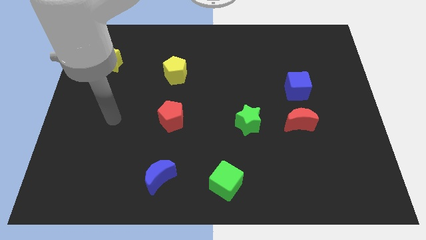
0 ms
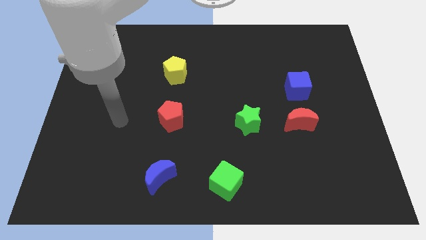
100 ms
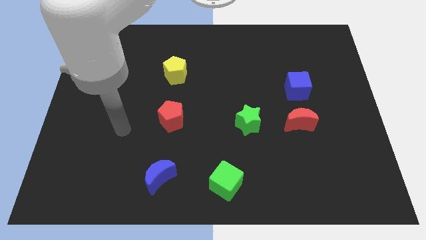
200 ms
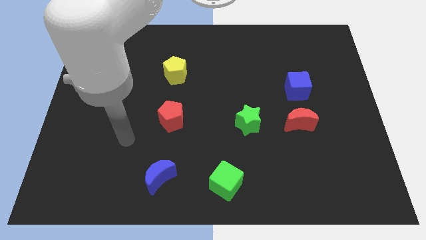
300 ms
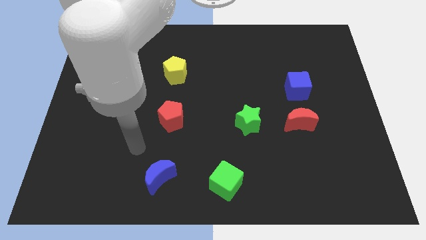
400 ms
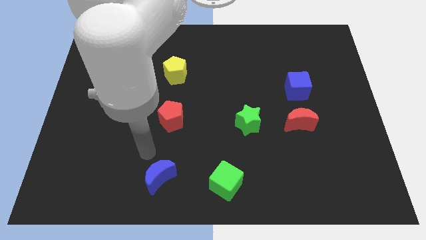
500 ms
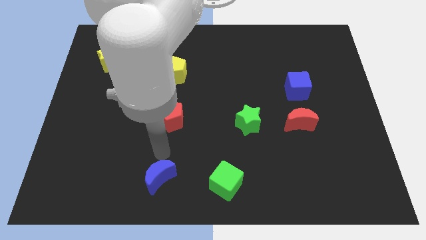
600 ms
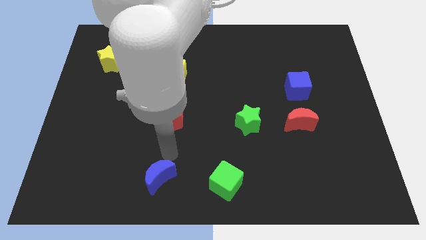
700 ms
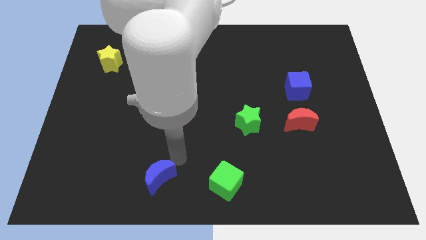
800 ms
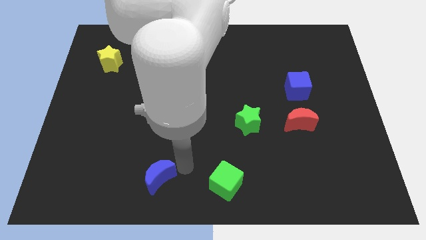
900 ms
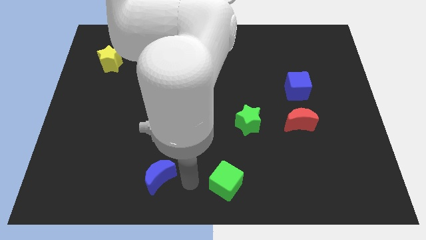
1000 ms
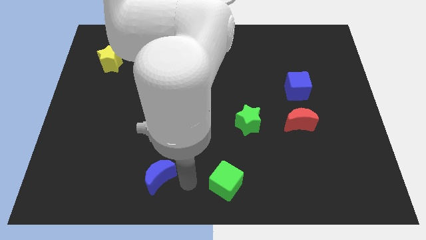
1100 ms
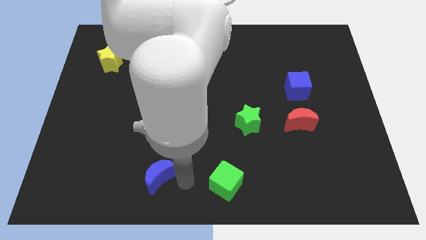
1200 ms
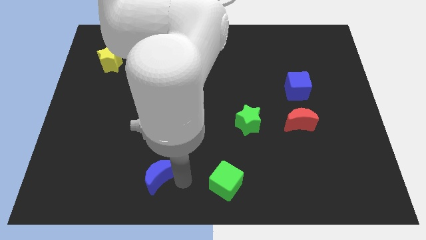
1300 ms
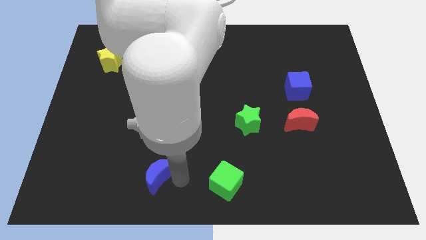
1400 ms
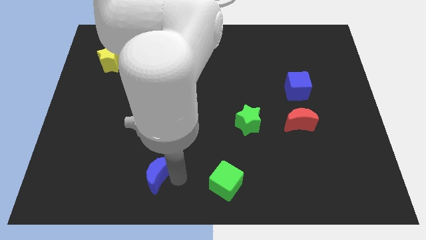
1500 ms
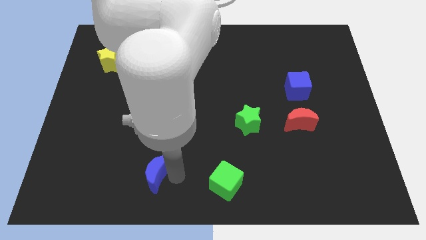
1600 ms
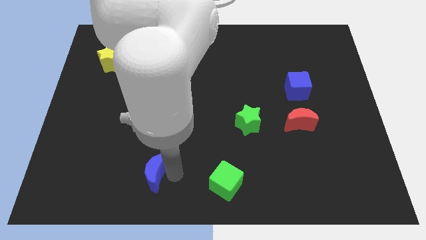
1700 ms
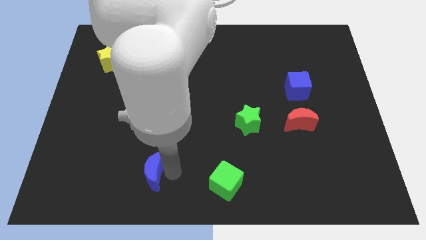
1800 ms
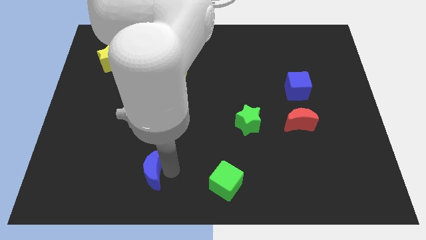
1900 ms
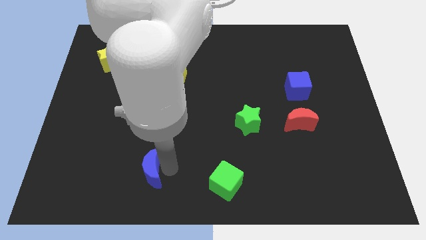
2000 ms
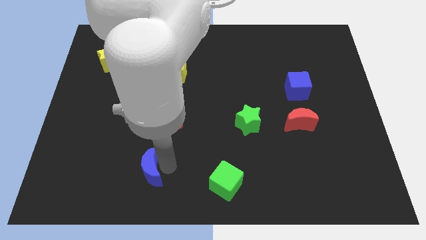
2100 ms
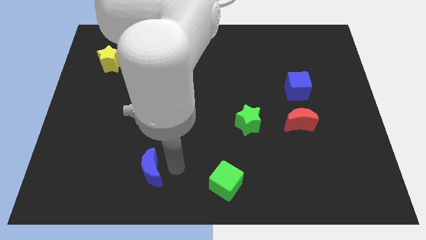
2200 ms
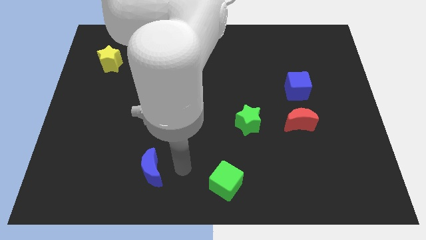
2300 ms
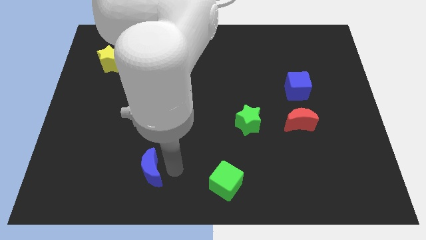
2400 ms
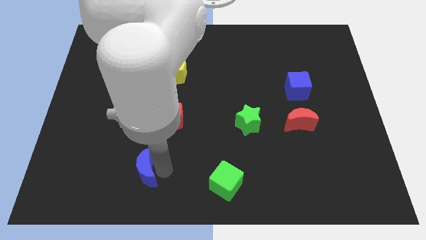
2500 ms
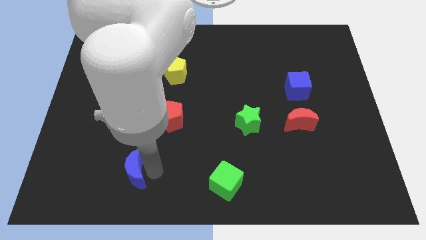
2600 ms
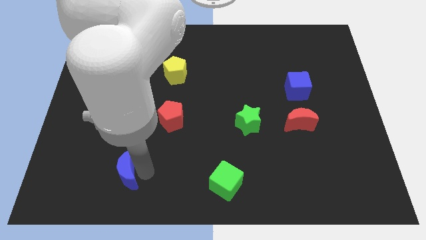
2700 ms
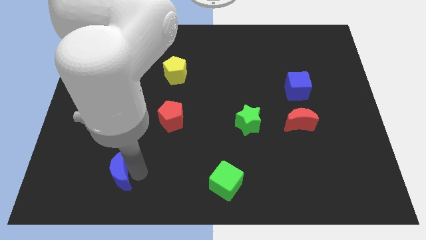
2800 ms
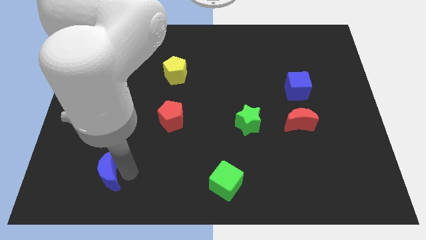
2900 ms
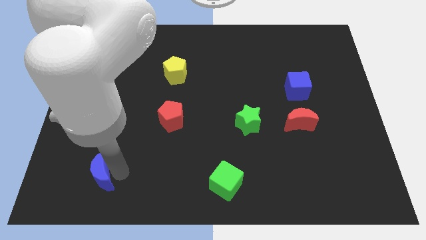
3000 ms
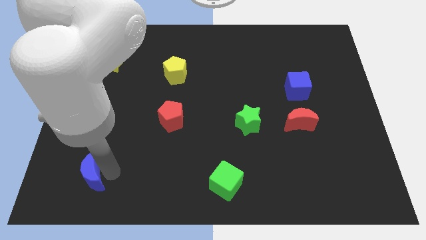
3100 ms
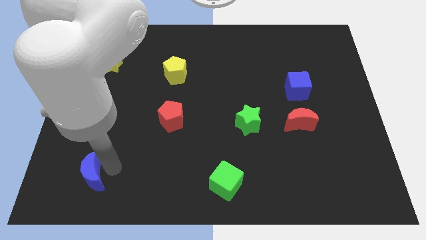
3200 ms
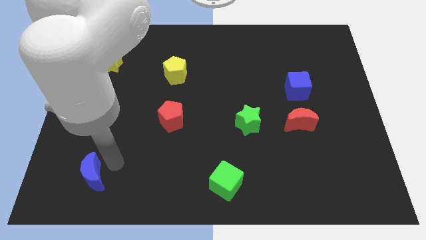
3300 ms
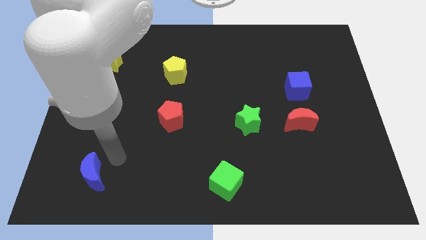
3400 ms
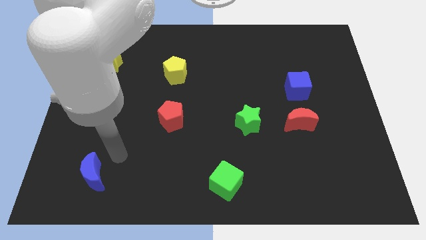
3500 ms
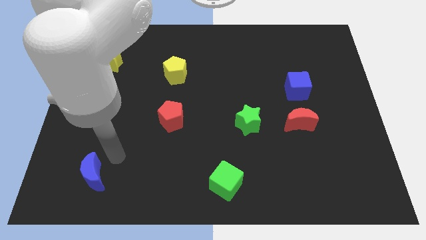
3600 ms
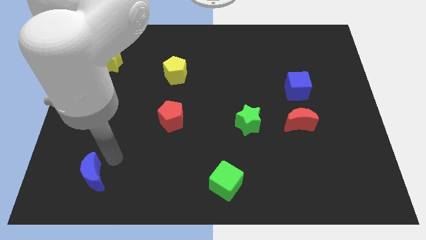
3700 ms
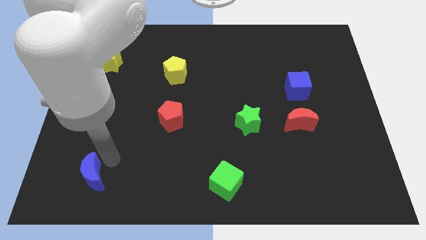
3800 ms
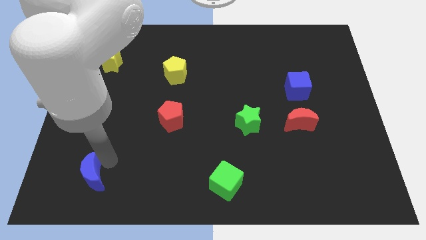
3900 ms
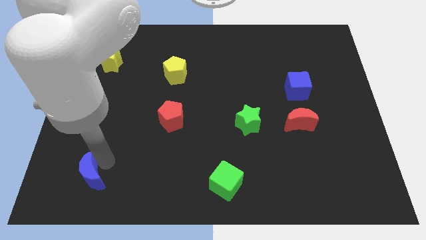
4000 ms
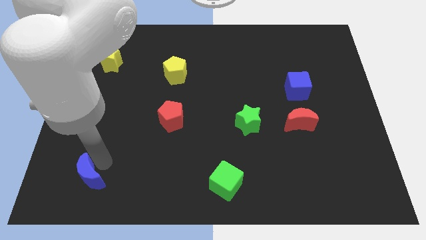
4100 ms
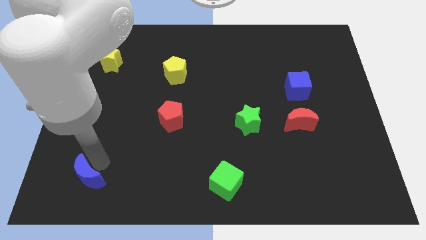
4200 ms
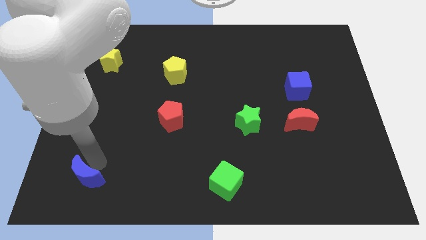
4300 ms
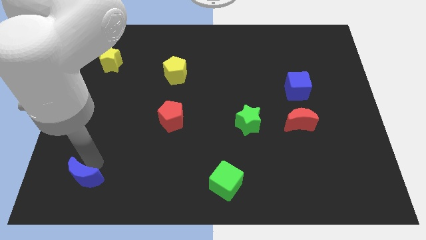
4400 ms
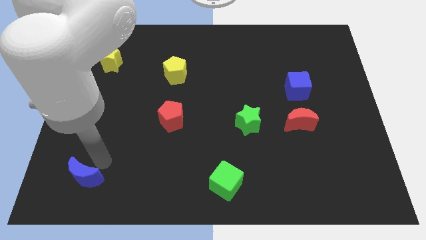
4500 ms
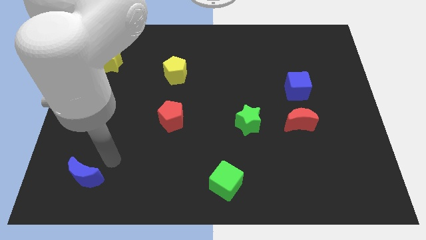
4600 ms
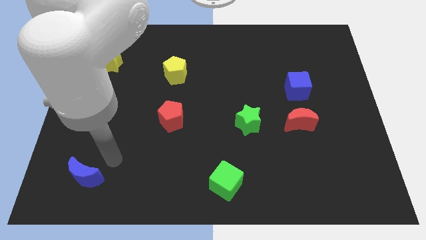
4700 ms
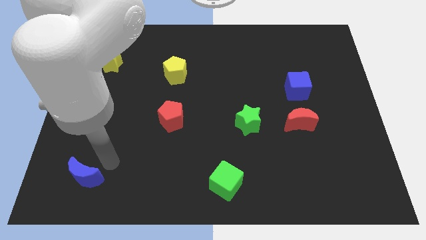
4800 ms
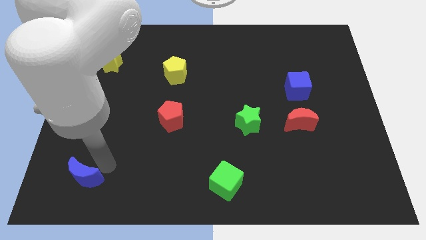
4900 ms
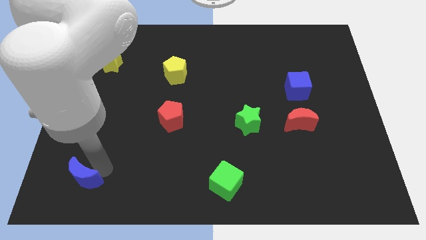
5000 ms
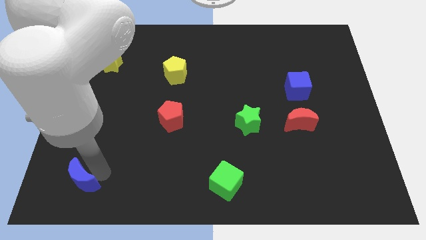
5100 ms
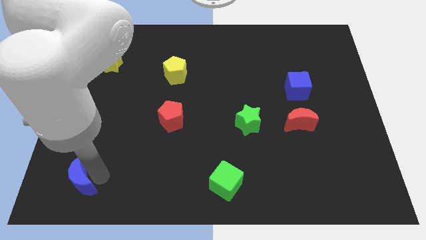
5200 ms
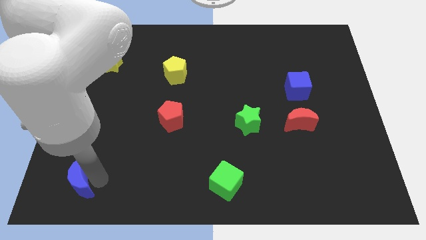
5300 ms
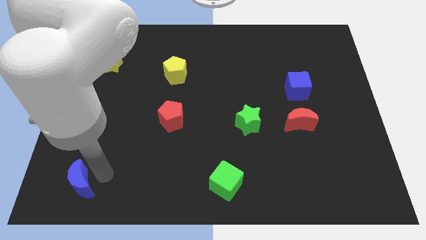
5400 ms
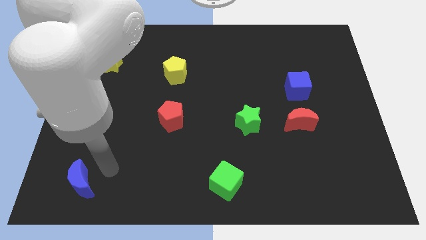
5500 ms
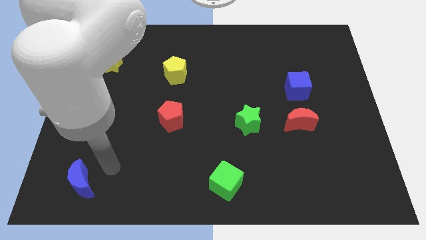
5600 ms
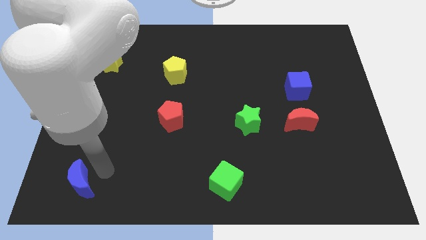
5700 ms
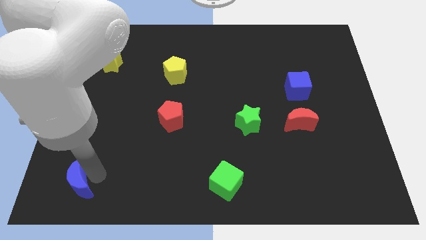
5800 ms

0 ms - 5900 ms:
move the blue moon to the bottom left of the board

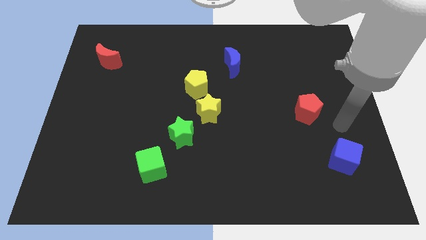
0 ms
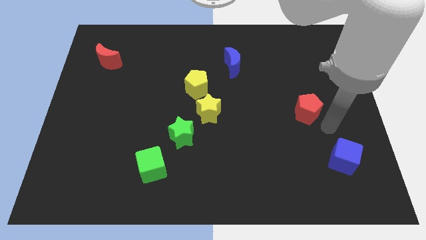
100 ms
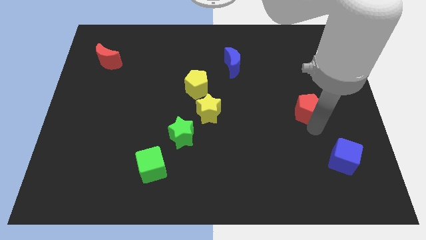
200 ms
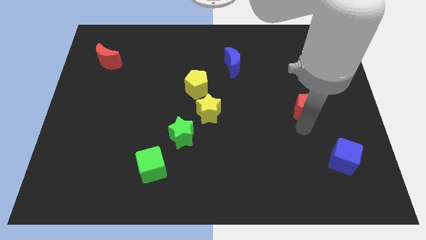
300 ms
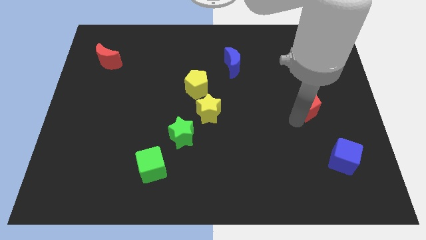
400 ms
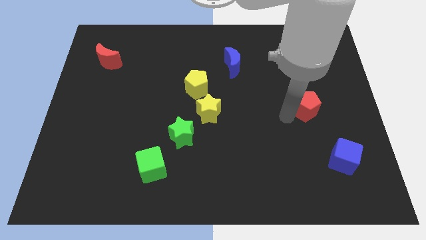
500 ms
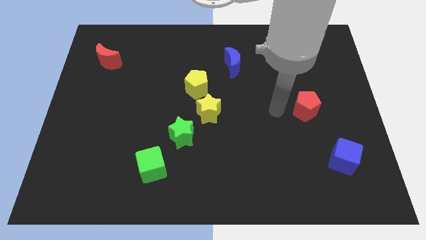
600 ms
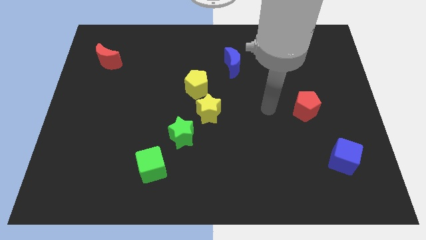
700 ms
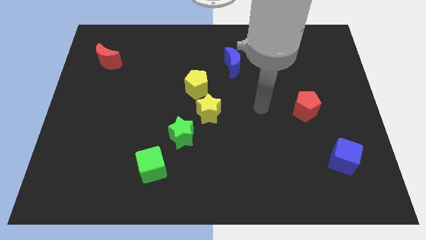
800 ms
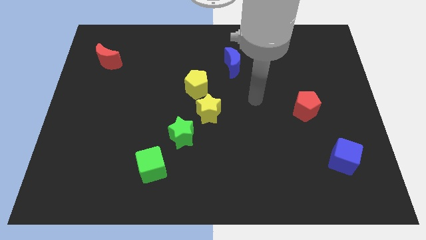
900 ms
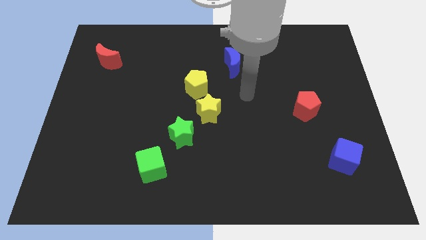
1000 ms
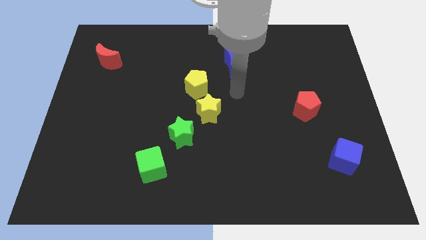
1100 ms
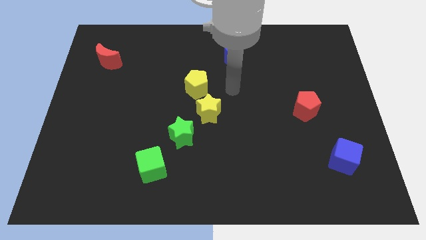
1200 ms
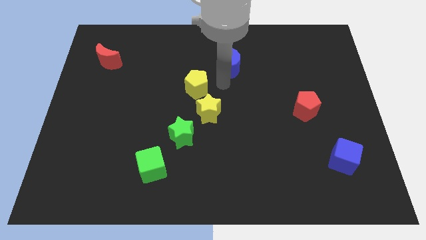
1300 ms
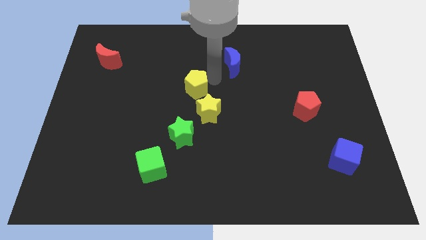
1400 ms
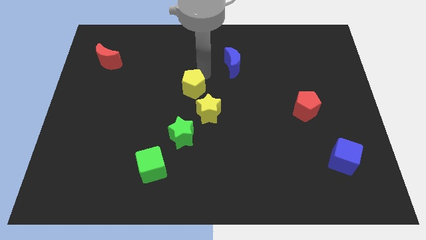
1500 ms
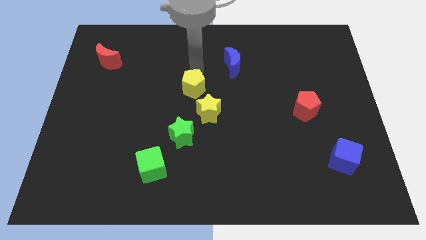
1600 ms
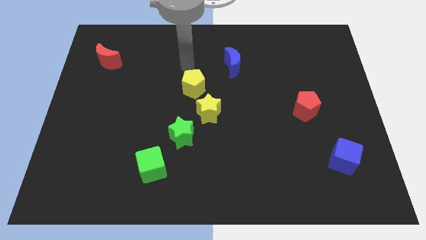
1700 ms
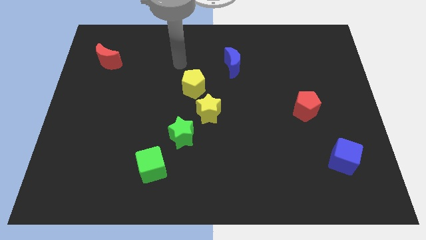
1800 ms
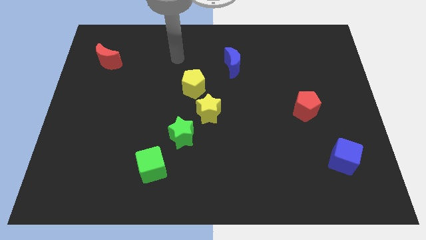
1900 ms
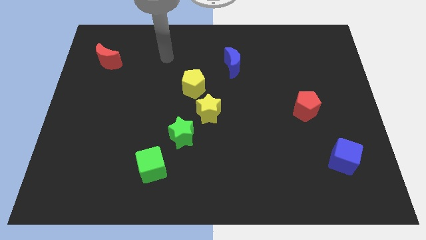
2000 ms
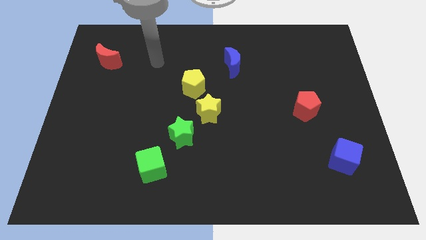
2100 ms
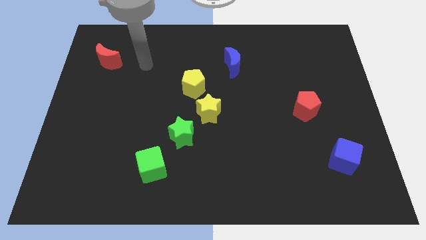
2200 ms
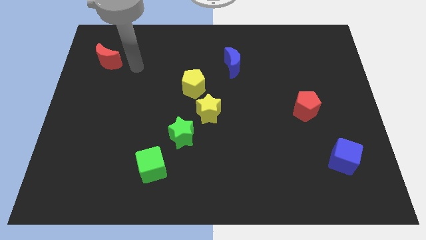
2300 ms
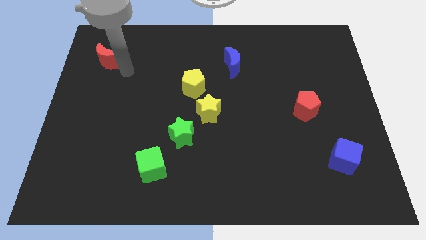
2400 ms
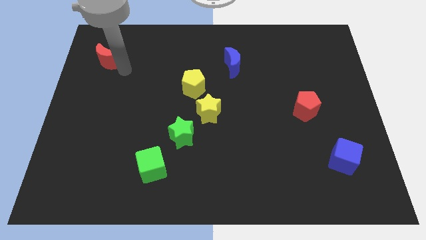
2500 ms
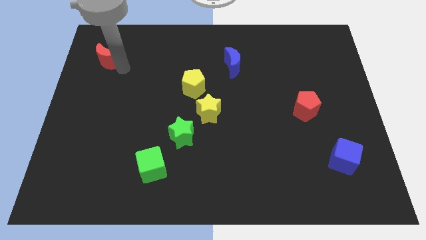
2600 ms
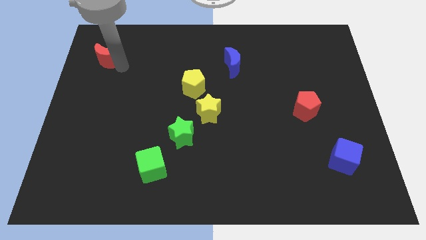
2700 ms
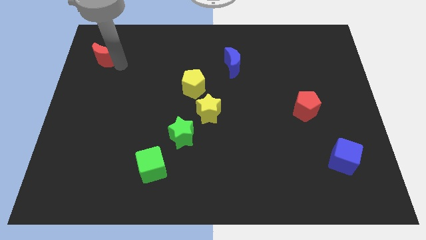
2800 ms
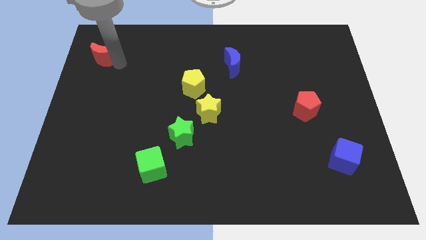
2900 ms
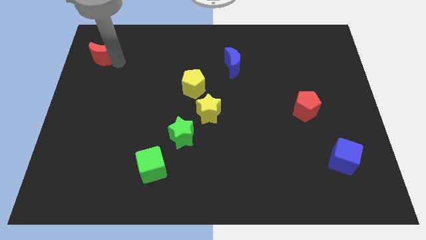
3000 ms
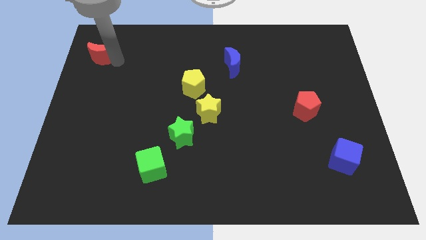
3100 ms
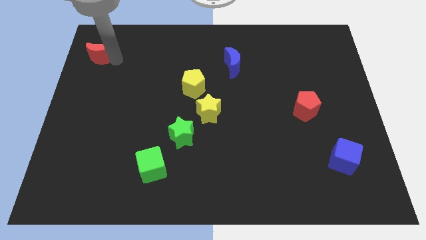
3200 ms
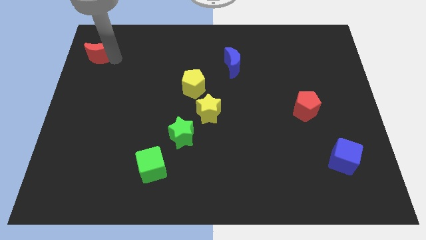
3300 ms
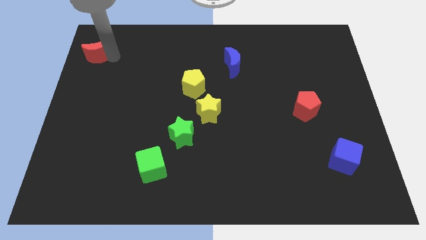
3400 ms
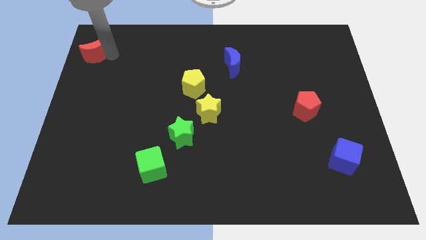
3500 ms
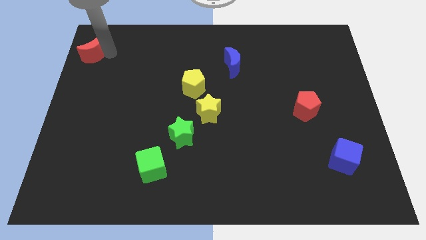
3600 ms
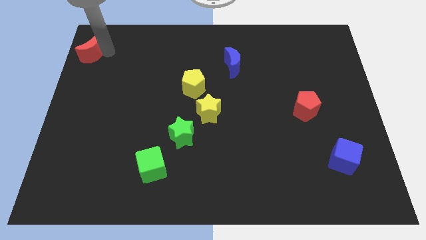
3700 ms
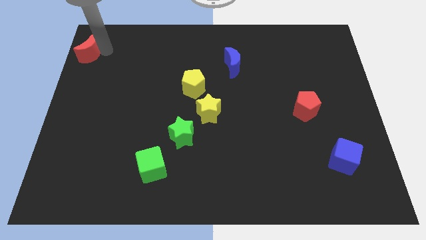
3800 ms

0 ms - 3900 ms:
push the red moon to the upper left corner
